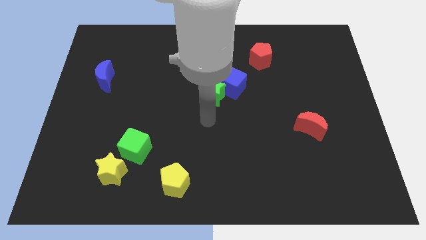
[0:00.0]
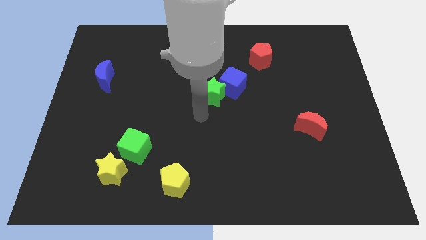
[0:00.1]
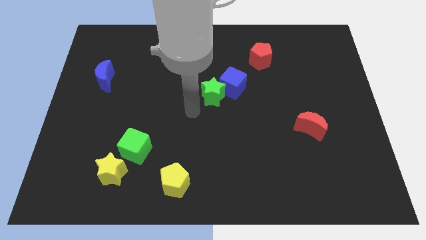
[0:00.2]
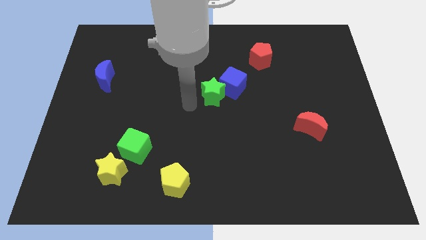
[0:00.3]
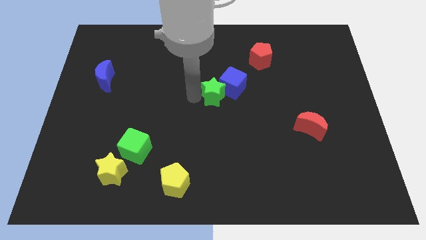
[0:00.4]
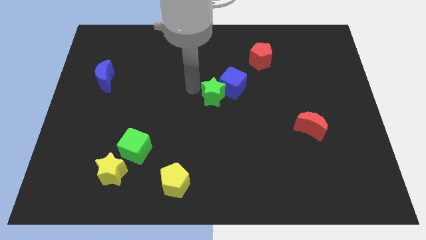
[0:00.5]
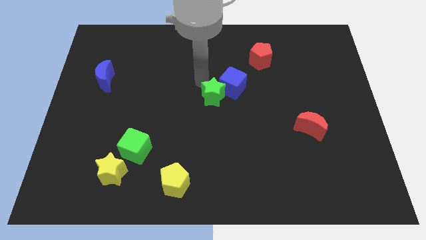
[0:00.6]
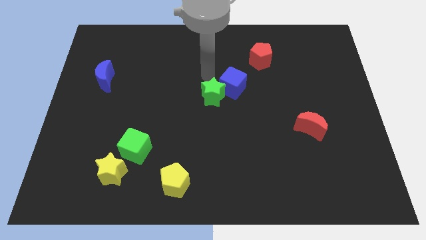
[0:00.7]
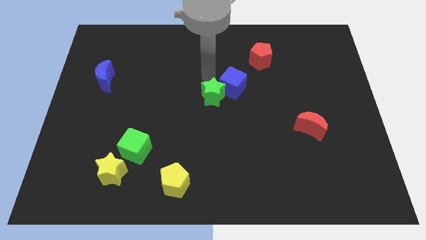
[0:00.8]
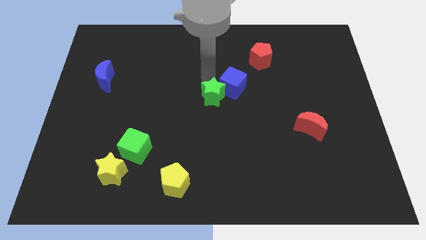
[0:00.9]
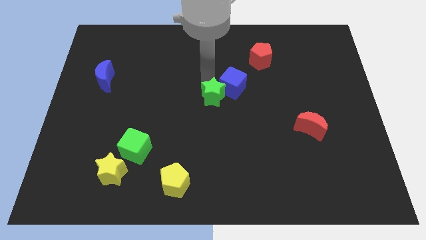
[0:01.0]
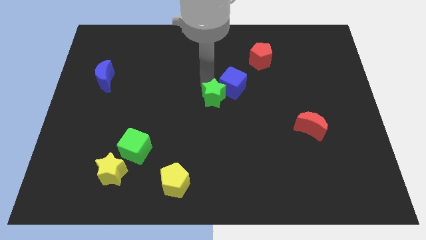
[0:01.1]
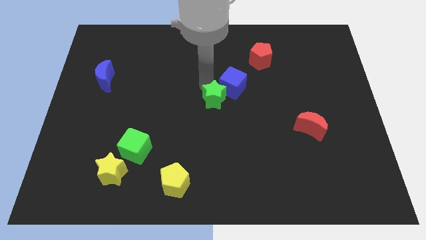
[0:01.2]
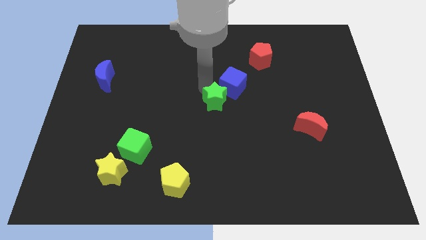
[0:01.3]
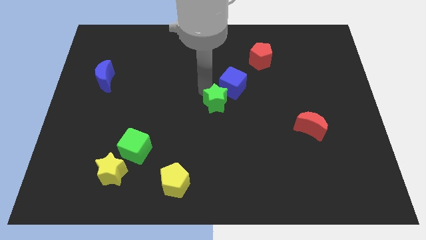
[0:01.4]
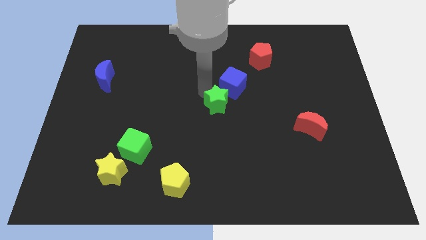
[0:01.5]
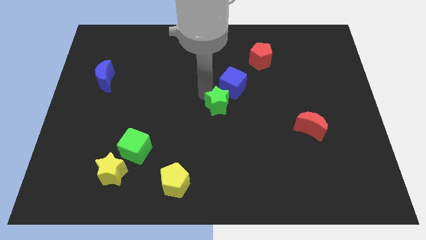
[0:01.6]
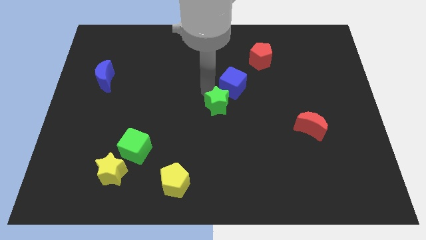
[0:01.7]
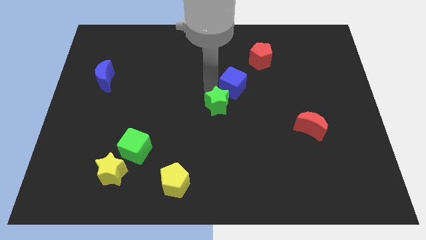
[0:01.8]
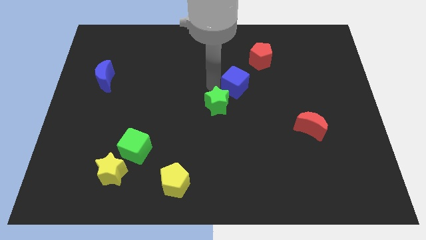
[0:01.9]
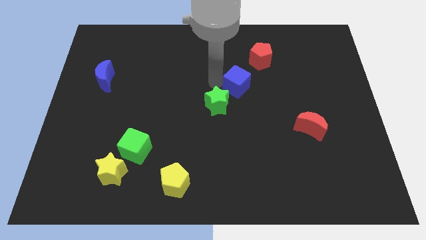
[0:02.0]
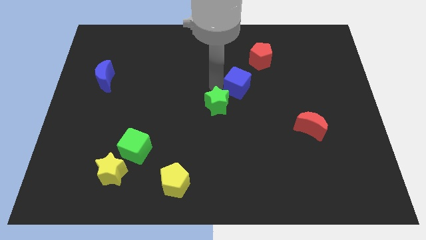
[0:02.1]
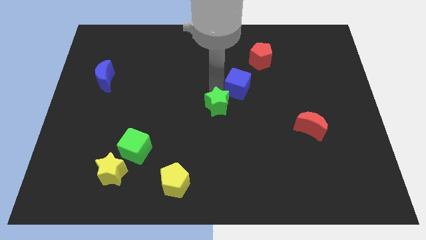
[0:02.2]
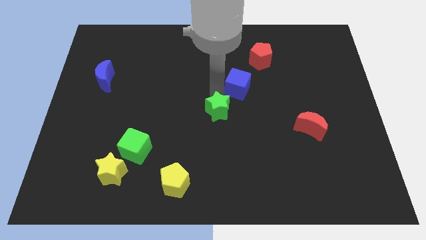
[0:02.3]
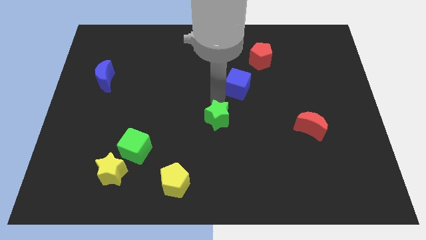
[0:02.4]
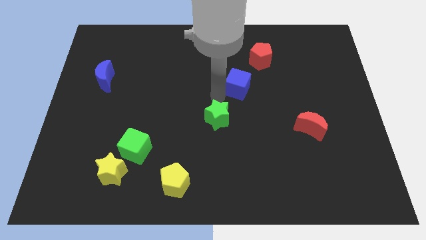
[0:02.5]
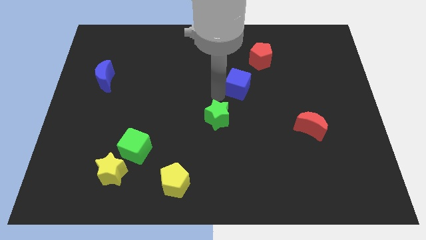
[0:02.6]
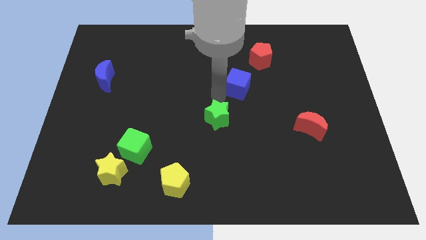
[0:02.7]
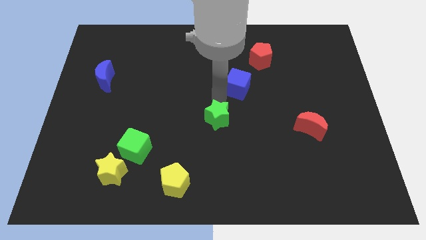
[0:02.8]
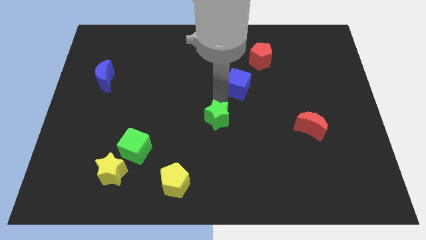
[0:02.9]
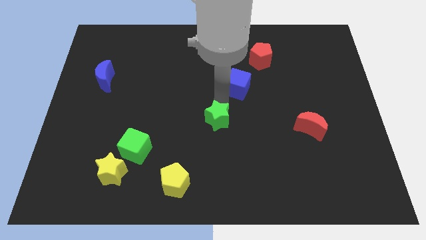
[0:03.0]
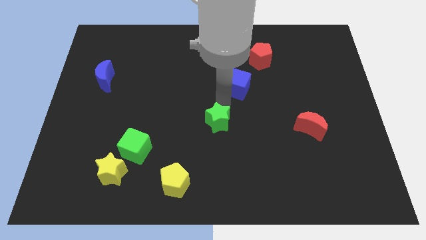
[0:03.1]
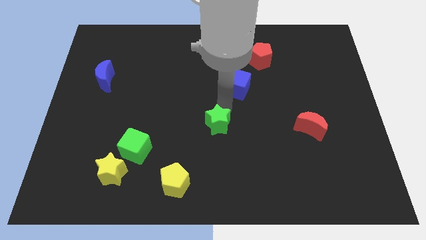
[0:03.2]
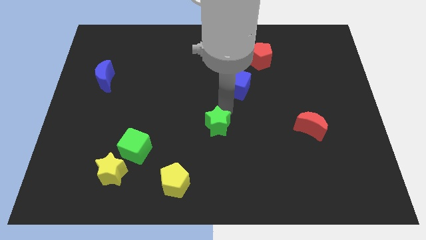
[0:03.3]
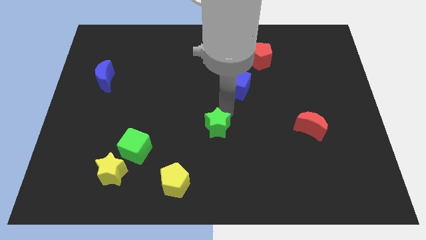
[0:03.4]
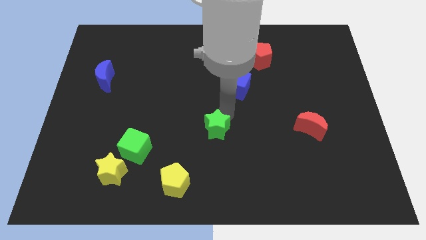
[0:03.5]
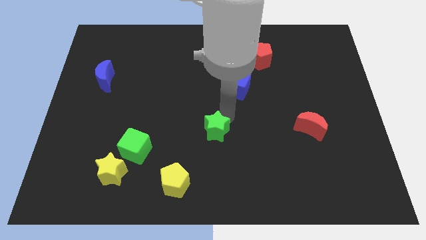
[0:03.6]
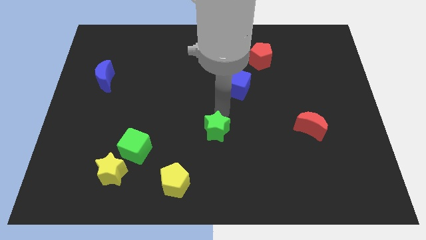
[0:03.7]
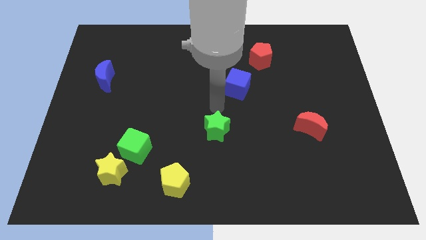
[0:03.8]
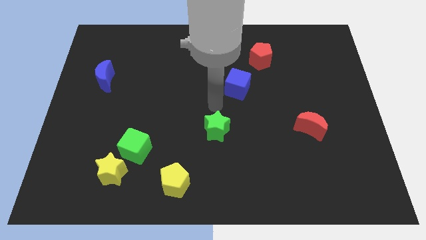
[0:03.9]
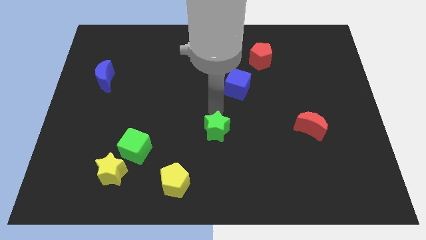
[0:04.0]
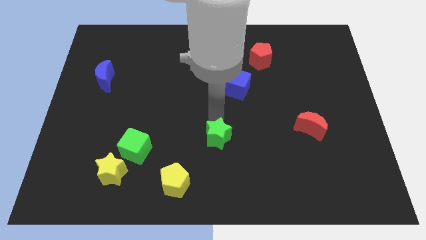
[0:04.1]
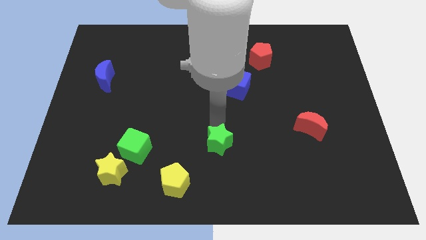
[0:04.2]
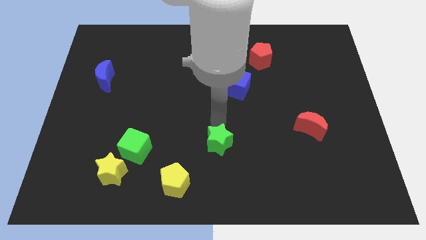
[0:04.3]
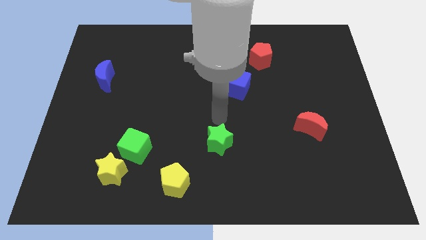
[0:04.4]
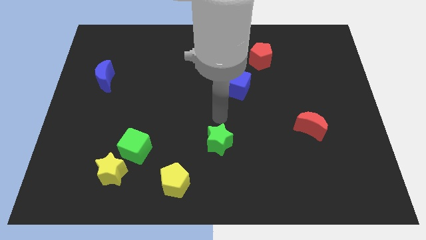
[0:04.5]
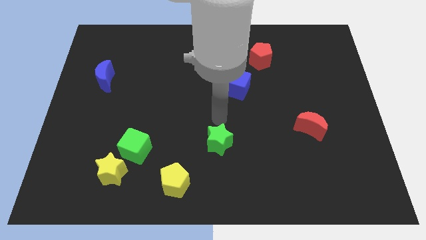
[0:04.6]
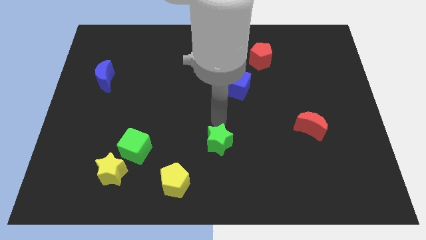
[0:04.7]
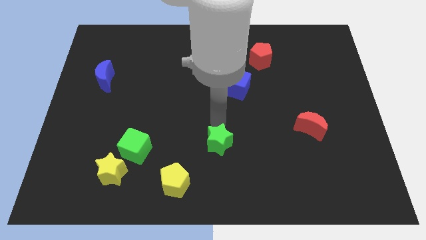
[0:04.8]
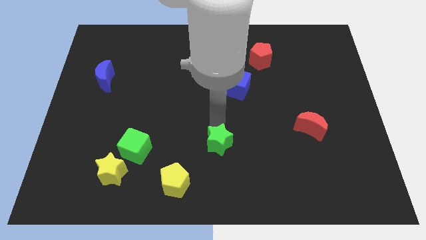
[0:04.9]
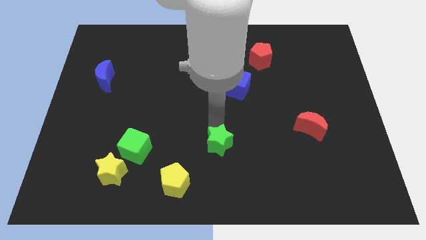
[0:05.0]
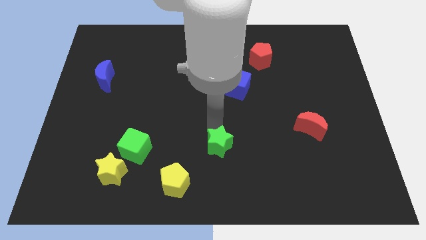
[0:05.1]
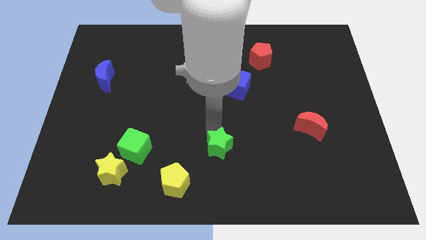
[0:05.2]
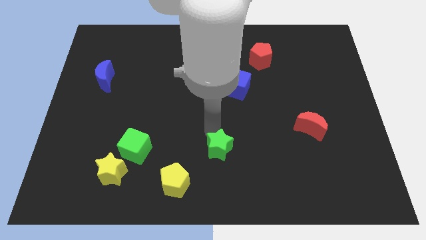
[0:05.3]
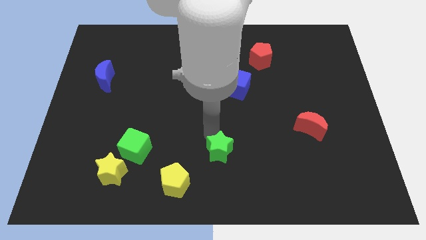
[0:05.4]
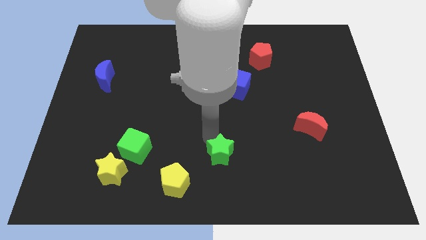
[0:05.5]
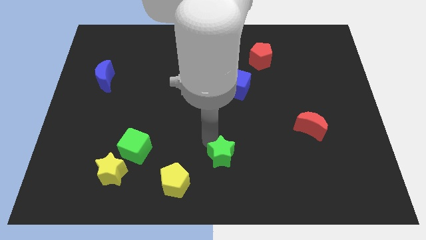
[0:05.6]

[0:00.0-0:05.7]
push the green star to the bottom

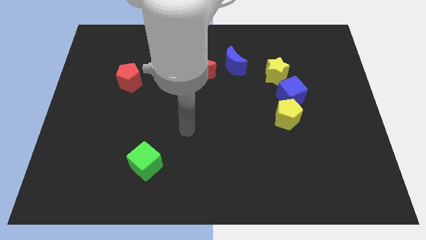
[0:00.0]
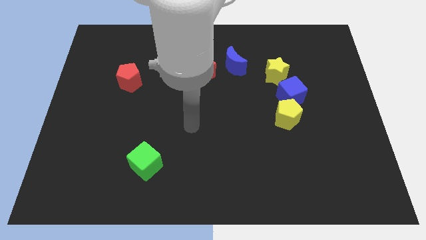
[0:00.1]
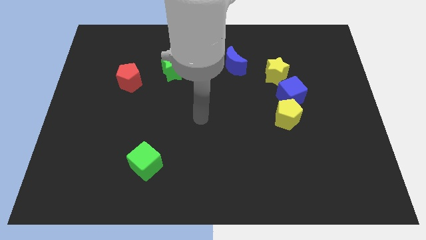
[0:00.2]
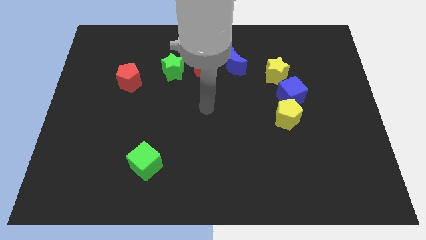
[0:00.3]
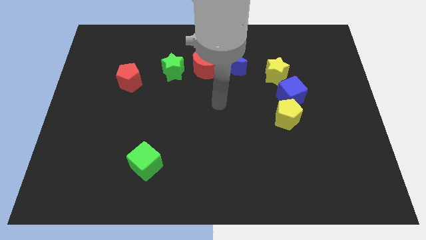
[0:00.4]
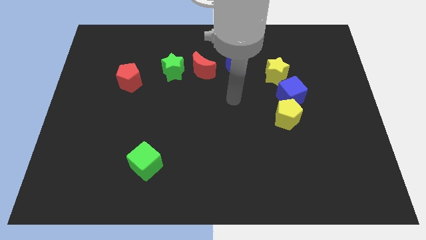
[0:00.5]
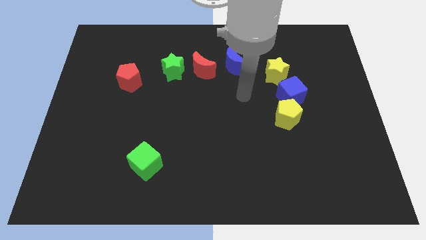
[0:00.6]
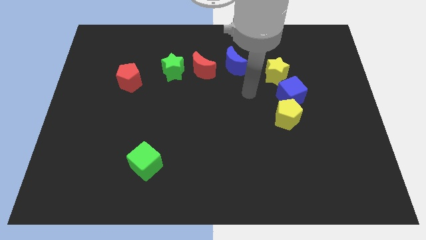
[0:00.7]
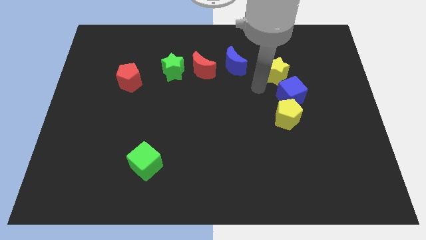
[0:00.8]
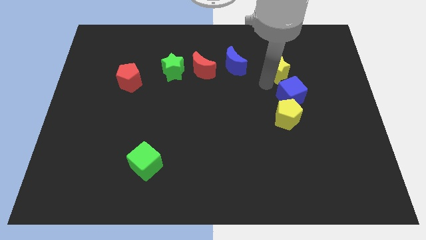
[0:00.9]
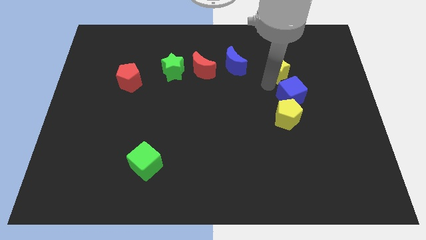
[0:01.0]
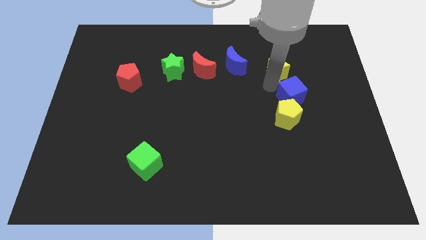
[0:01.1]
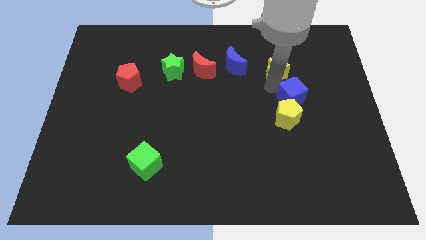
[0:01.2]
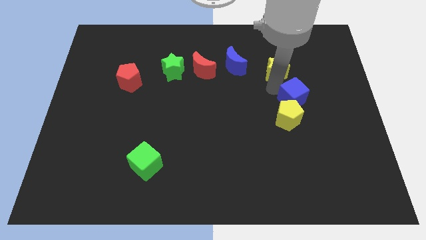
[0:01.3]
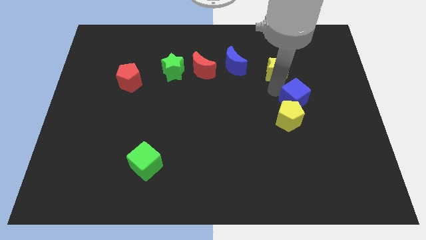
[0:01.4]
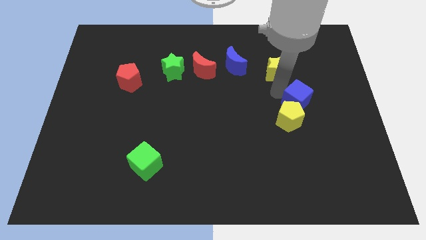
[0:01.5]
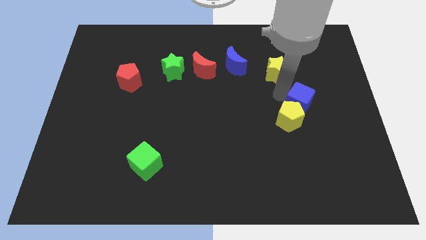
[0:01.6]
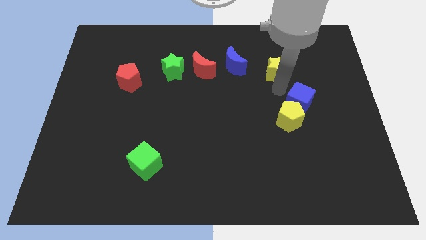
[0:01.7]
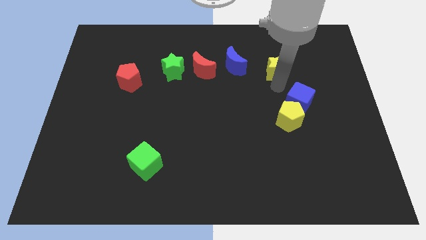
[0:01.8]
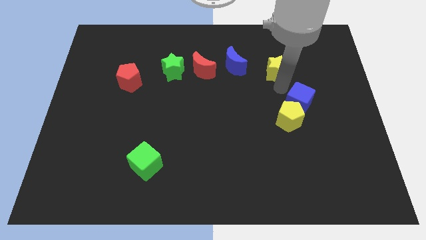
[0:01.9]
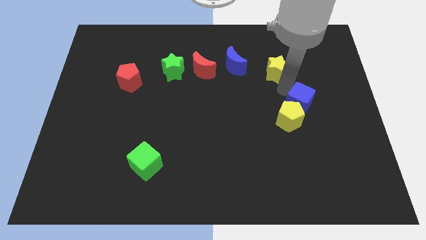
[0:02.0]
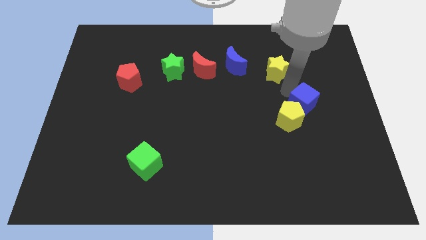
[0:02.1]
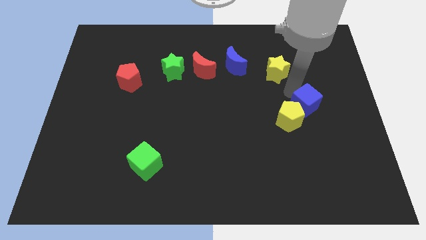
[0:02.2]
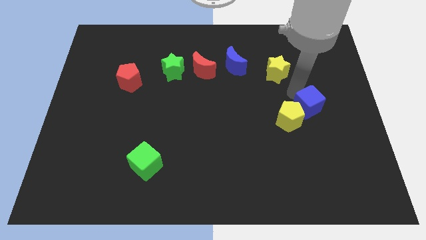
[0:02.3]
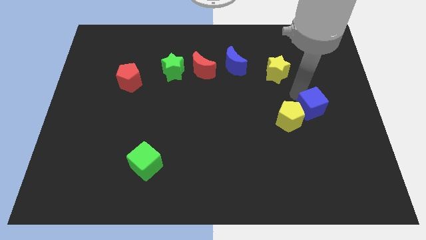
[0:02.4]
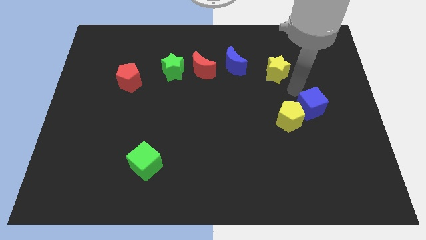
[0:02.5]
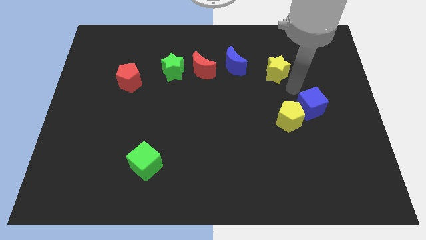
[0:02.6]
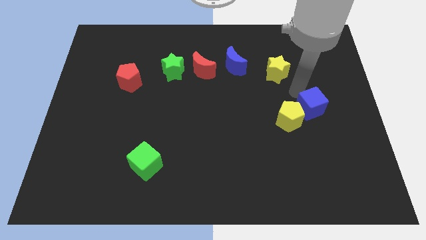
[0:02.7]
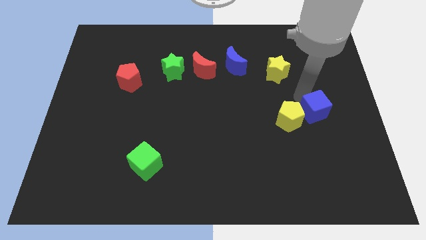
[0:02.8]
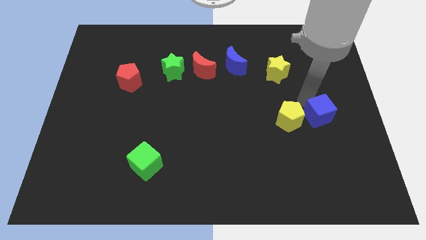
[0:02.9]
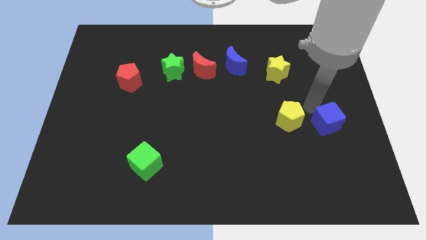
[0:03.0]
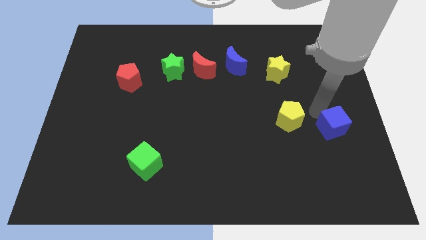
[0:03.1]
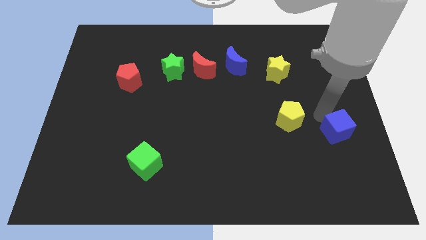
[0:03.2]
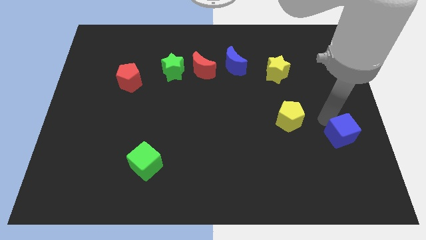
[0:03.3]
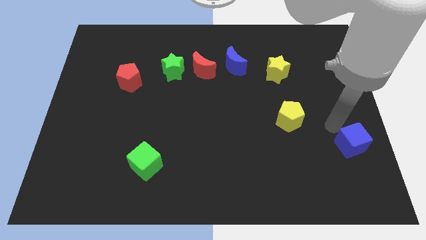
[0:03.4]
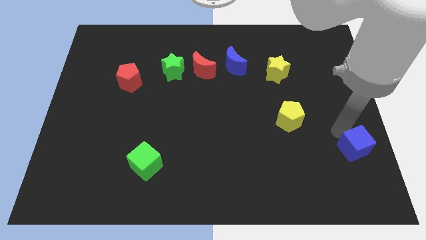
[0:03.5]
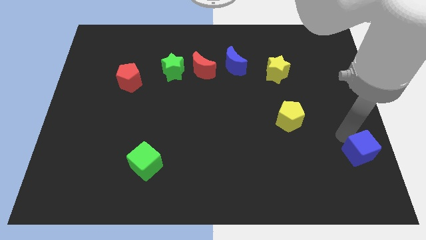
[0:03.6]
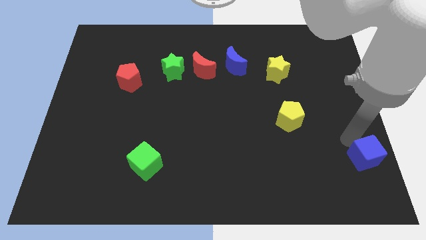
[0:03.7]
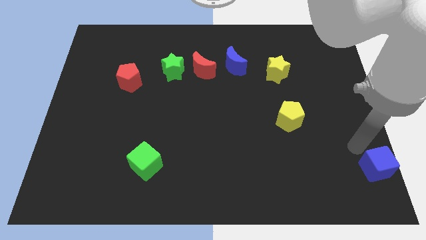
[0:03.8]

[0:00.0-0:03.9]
move the blue cube to the lower right corner
